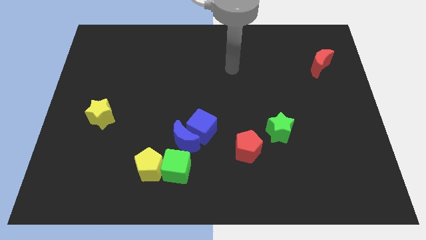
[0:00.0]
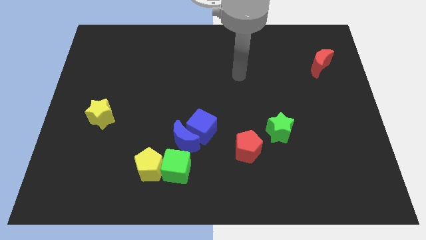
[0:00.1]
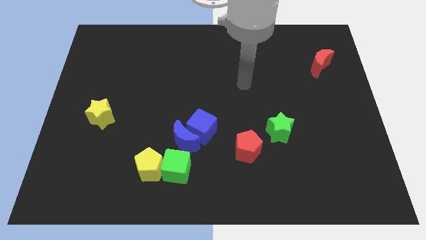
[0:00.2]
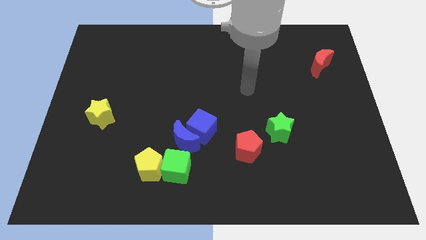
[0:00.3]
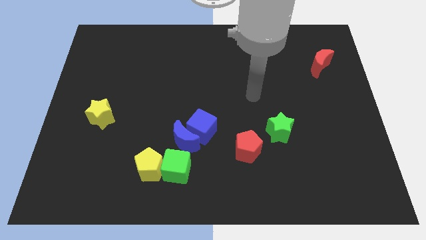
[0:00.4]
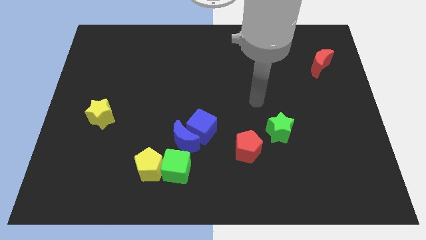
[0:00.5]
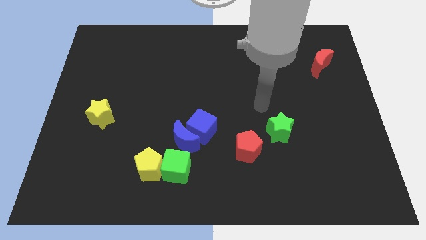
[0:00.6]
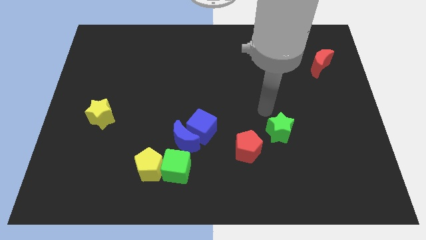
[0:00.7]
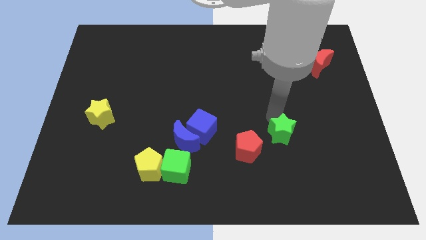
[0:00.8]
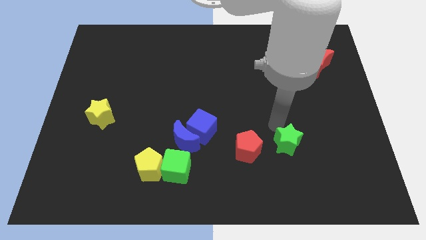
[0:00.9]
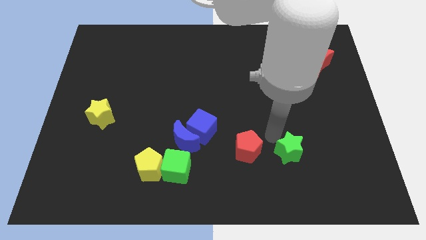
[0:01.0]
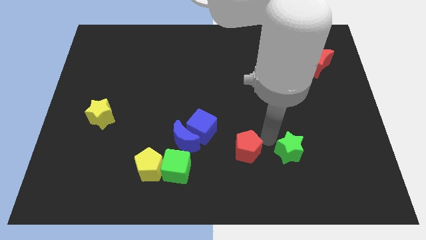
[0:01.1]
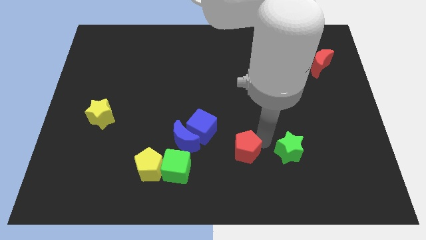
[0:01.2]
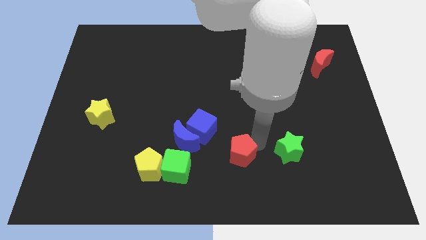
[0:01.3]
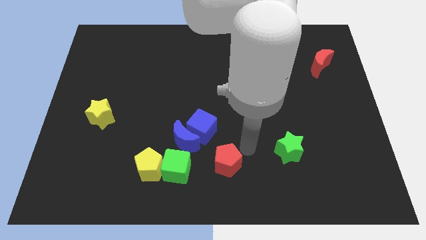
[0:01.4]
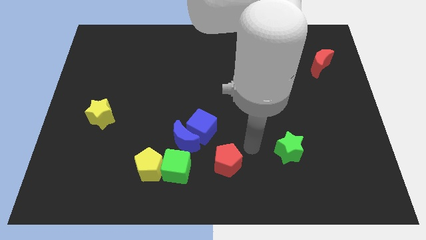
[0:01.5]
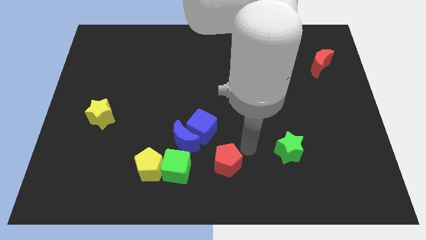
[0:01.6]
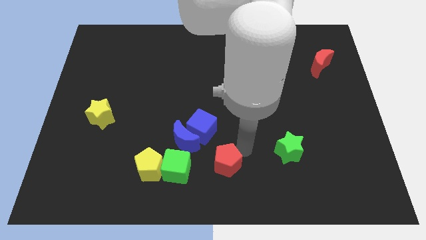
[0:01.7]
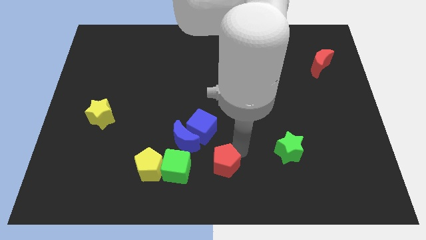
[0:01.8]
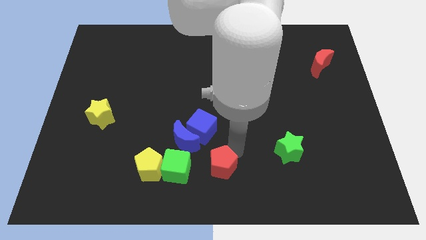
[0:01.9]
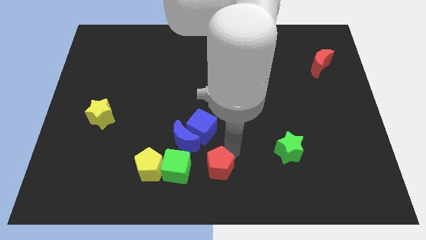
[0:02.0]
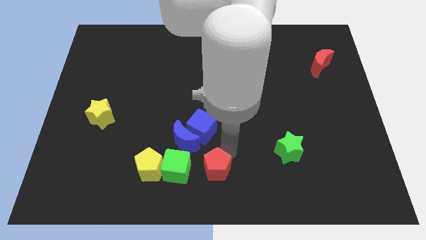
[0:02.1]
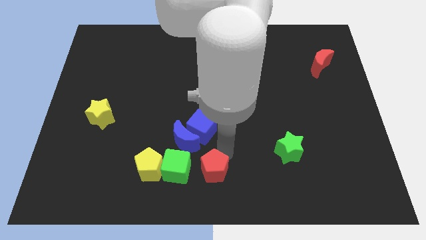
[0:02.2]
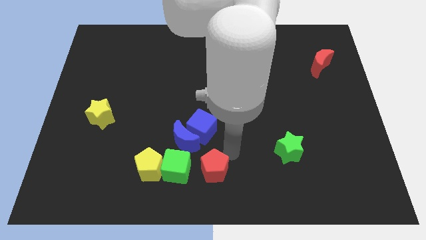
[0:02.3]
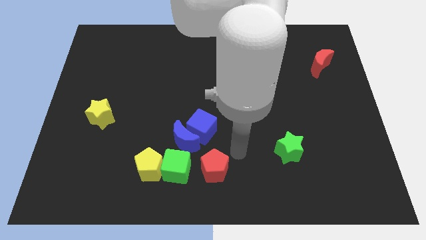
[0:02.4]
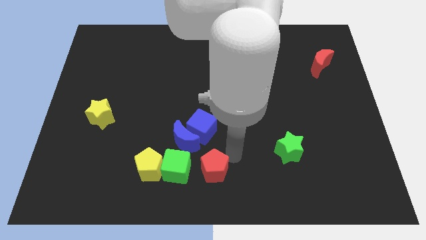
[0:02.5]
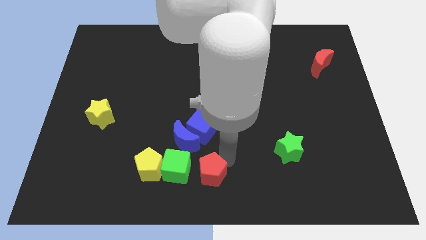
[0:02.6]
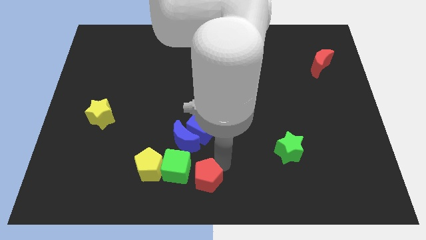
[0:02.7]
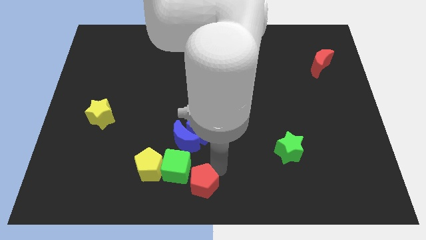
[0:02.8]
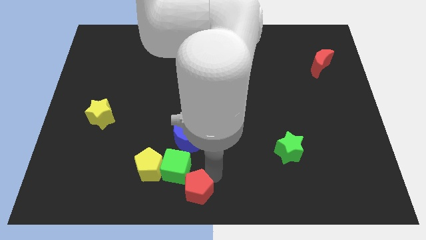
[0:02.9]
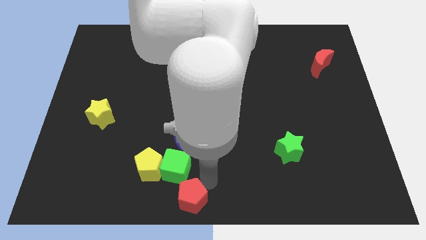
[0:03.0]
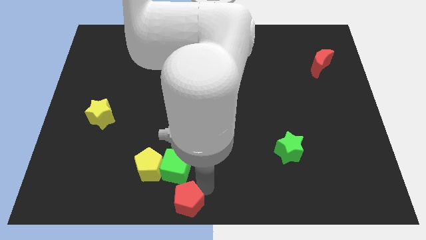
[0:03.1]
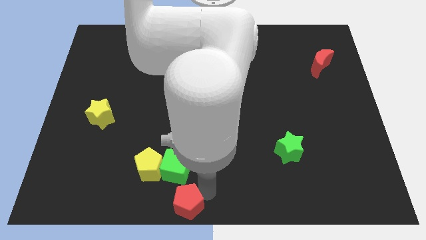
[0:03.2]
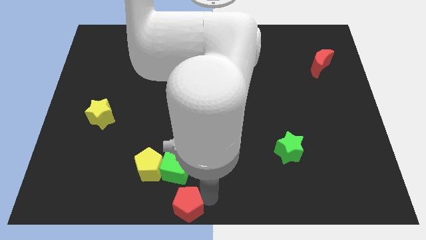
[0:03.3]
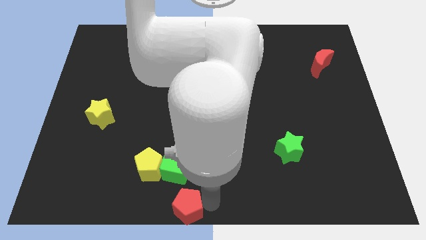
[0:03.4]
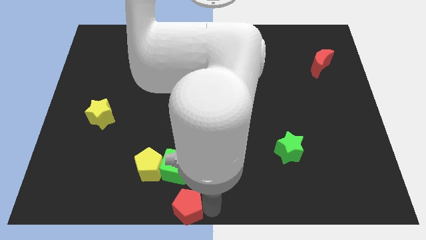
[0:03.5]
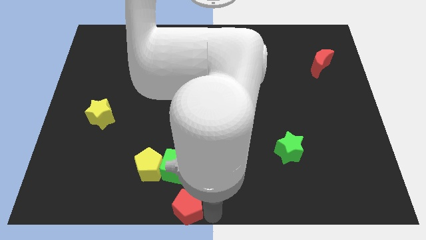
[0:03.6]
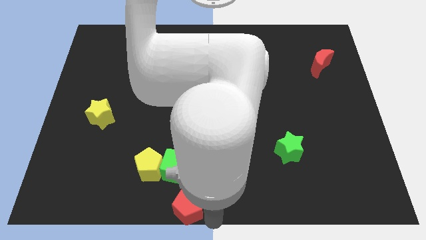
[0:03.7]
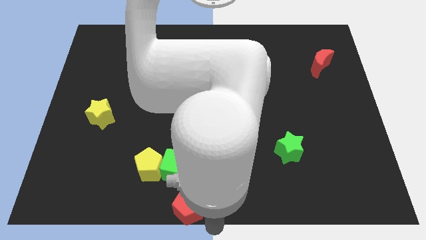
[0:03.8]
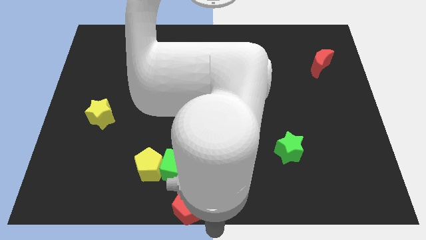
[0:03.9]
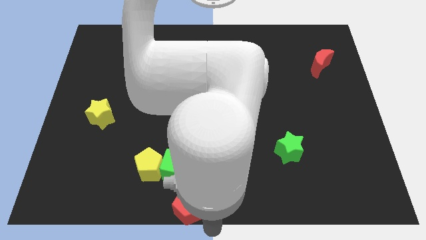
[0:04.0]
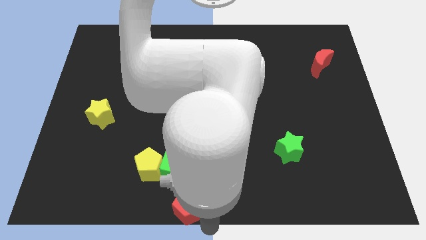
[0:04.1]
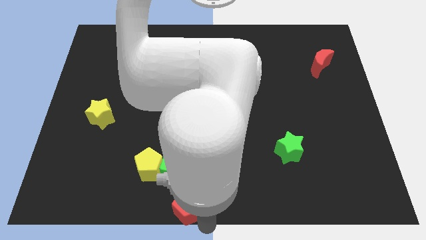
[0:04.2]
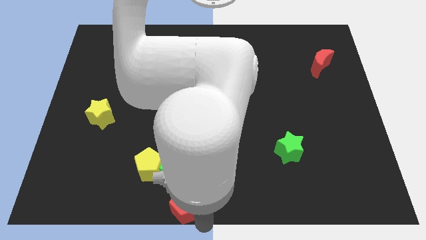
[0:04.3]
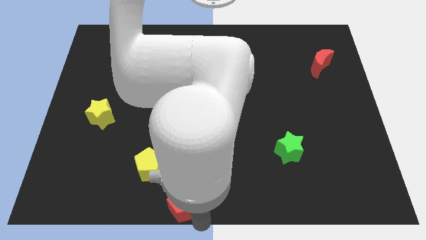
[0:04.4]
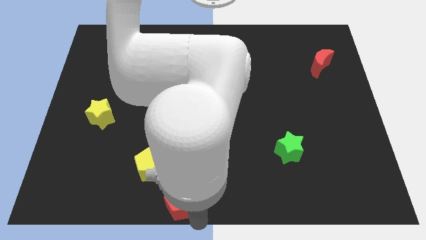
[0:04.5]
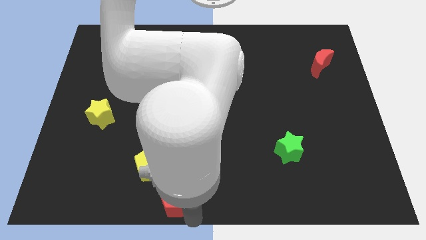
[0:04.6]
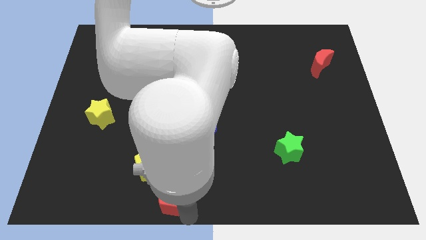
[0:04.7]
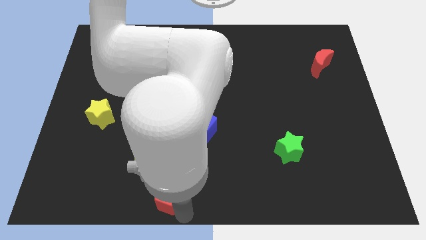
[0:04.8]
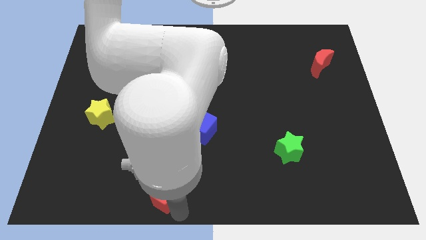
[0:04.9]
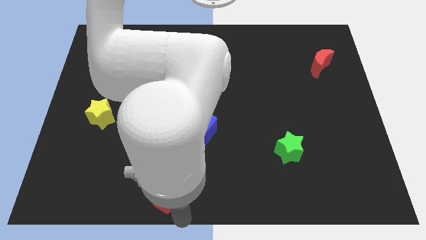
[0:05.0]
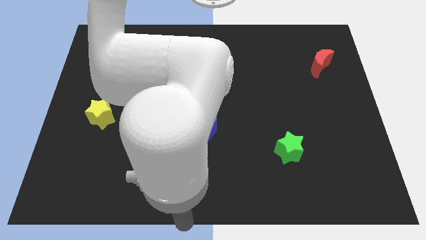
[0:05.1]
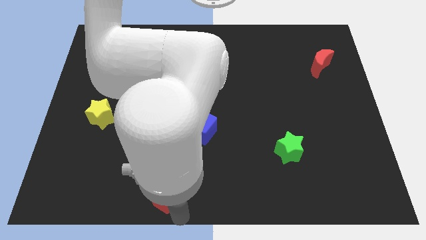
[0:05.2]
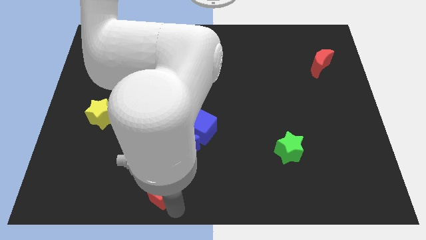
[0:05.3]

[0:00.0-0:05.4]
move the red pentagon next to the yellow pentagon

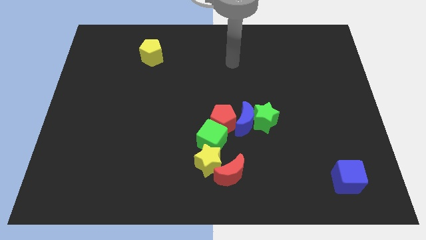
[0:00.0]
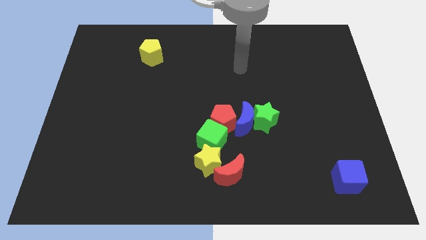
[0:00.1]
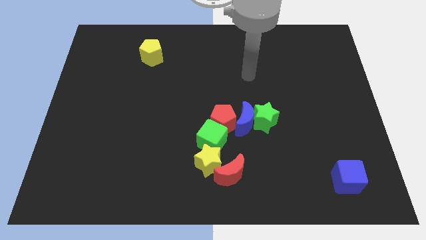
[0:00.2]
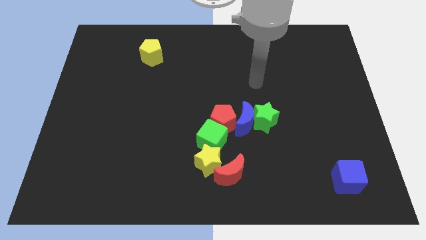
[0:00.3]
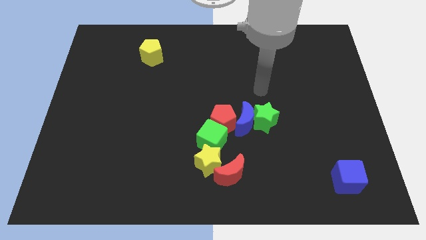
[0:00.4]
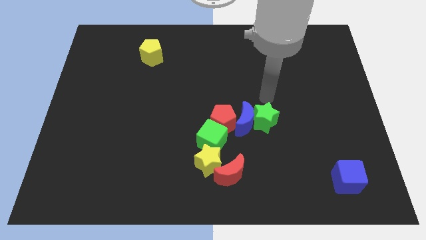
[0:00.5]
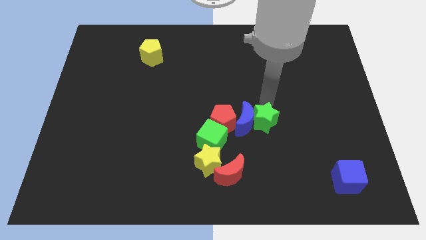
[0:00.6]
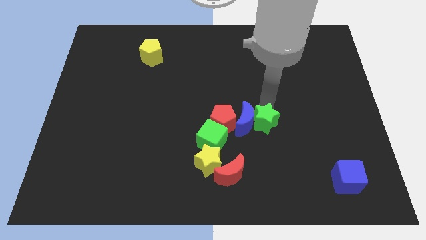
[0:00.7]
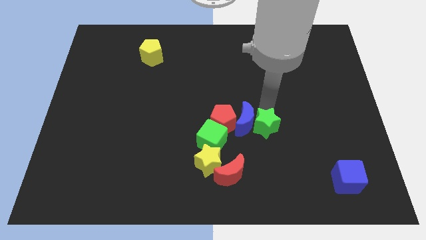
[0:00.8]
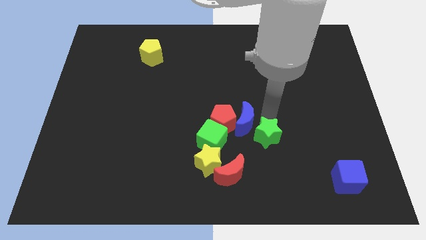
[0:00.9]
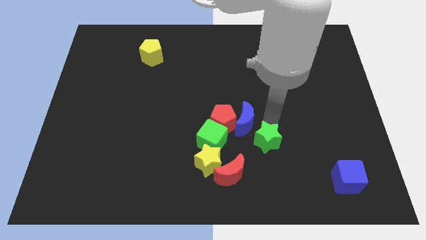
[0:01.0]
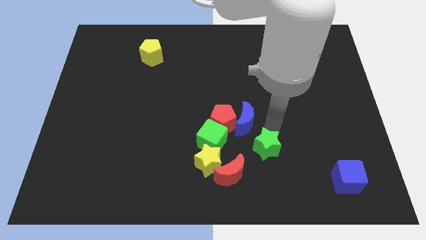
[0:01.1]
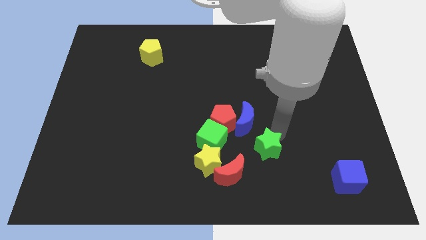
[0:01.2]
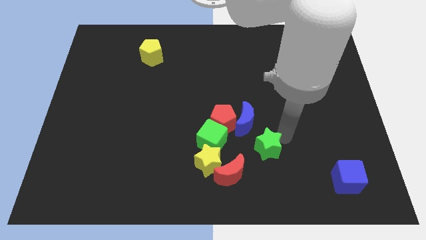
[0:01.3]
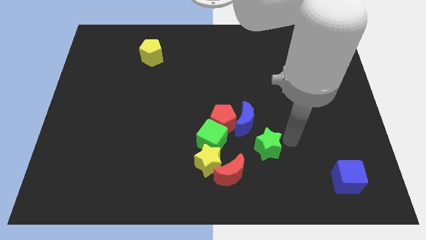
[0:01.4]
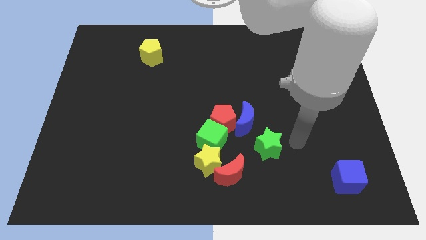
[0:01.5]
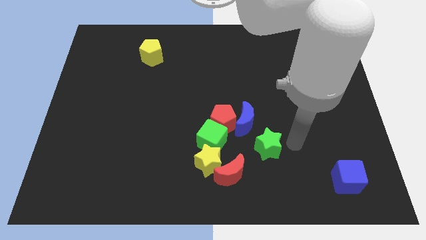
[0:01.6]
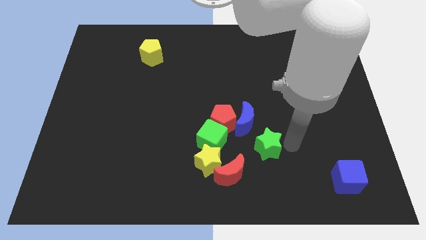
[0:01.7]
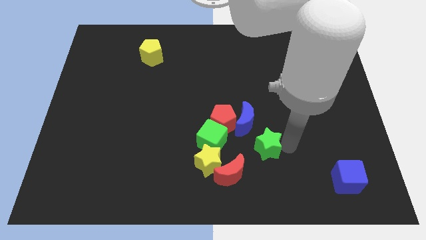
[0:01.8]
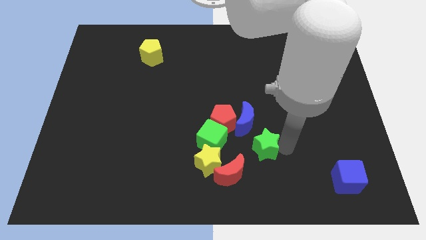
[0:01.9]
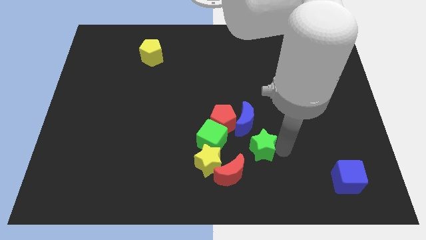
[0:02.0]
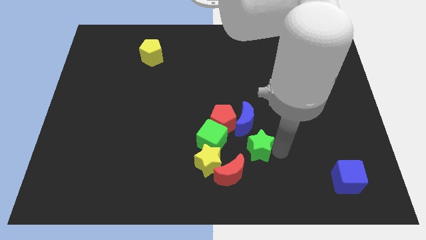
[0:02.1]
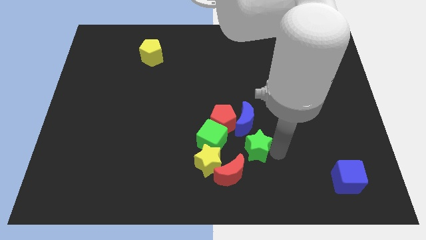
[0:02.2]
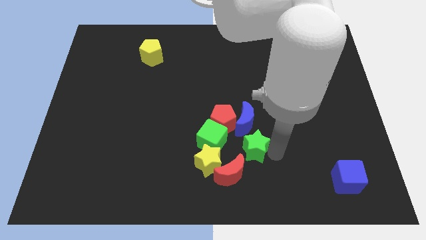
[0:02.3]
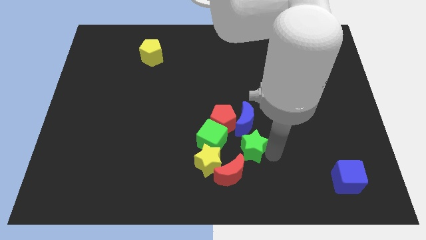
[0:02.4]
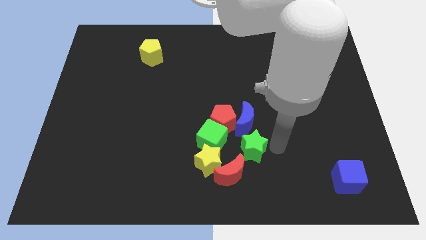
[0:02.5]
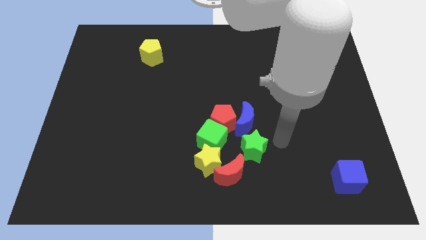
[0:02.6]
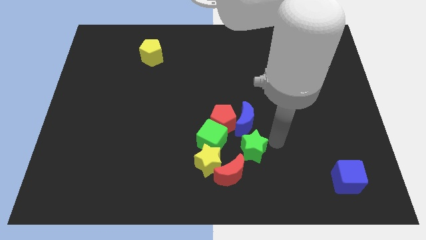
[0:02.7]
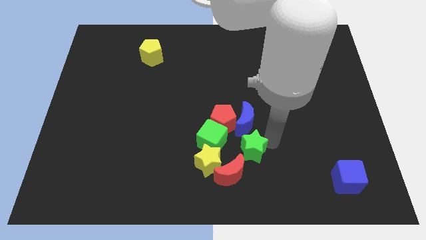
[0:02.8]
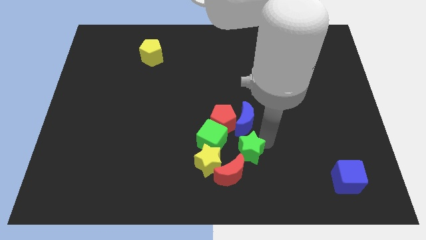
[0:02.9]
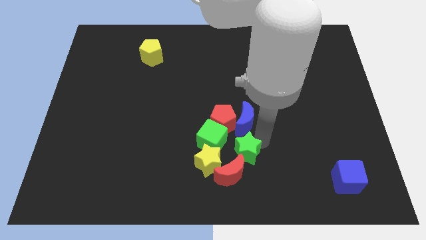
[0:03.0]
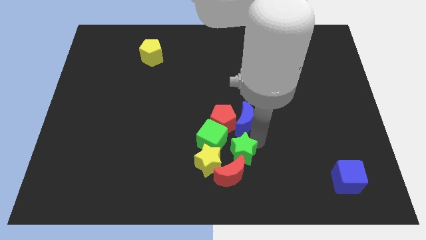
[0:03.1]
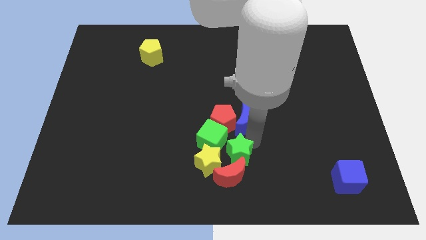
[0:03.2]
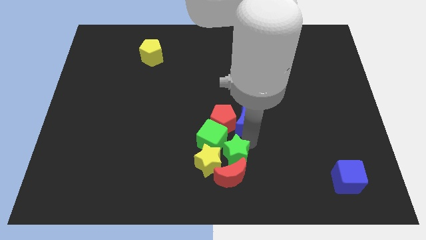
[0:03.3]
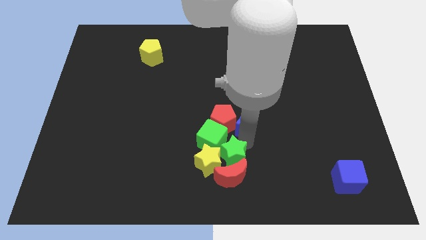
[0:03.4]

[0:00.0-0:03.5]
slide the green star close to the yellow star
